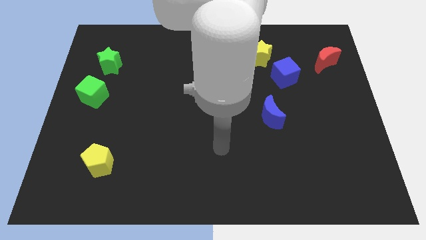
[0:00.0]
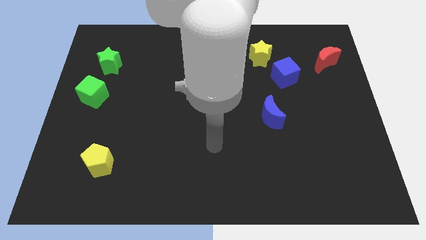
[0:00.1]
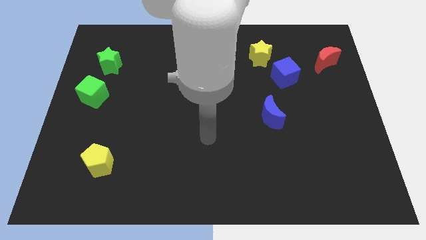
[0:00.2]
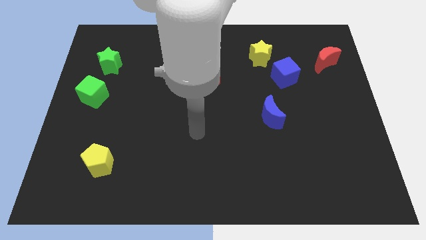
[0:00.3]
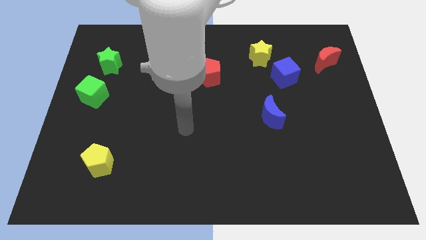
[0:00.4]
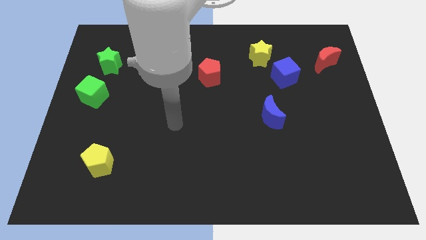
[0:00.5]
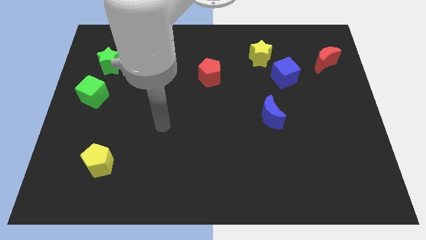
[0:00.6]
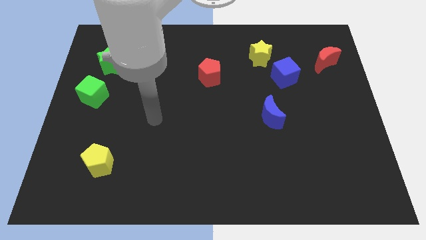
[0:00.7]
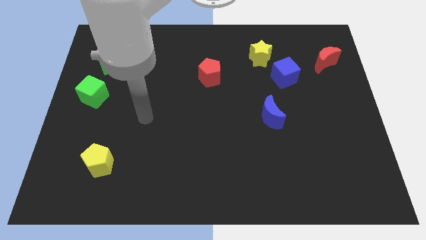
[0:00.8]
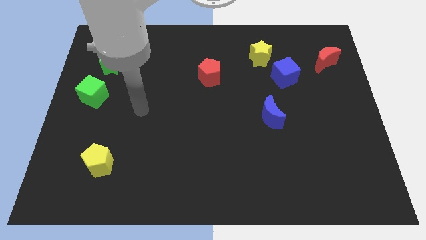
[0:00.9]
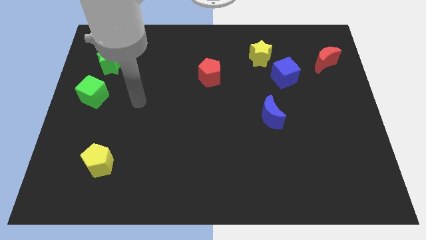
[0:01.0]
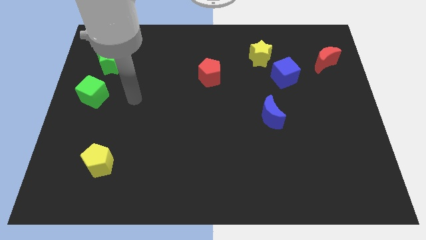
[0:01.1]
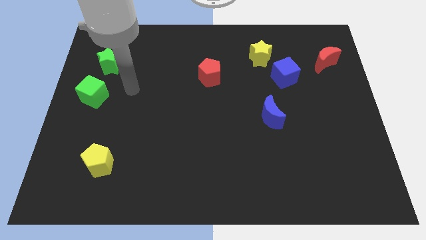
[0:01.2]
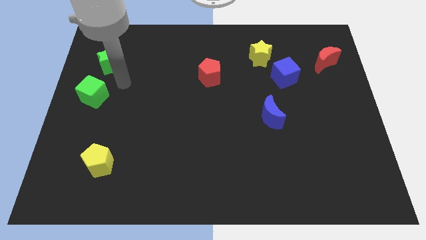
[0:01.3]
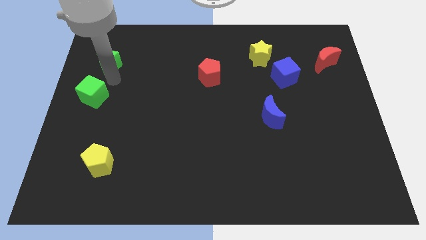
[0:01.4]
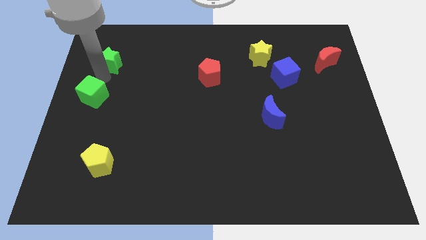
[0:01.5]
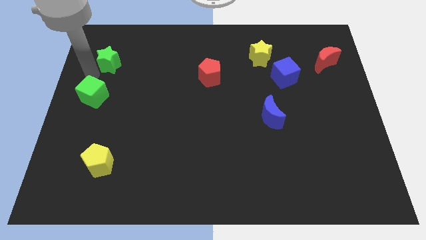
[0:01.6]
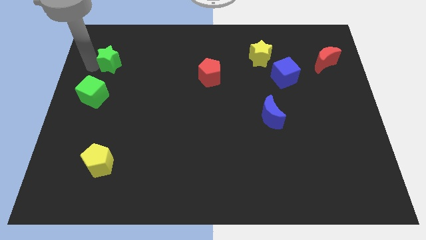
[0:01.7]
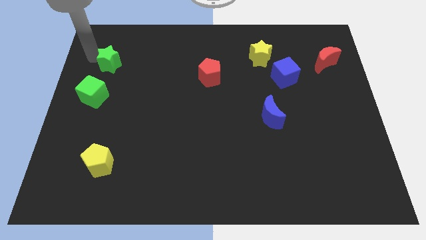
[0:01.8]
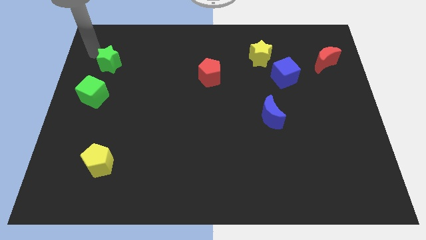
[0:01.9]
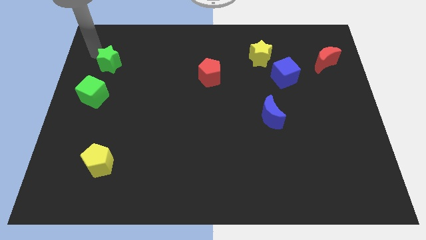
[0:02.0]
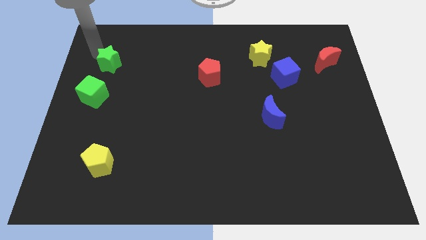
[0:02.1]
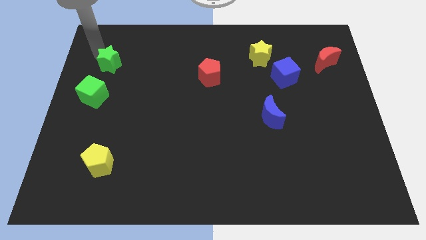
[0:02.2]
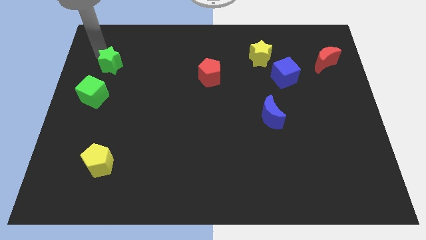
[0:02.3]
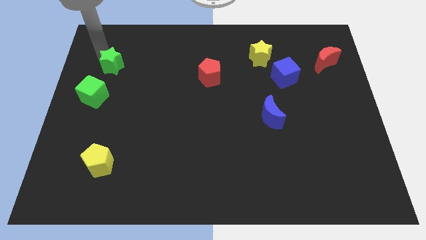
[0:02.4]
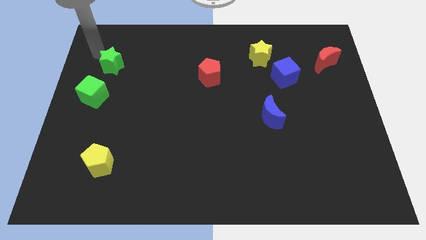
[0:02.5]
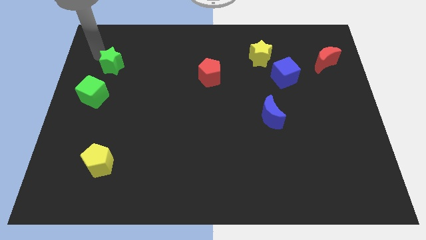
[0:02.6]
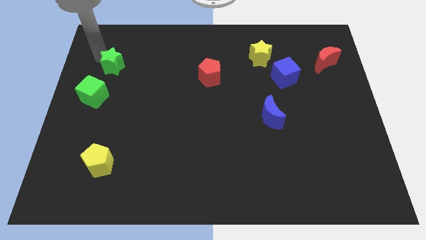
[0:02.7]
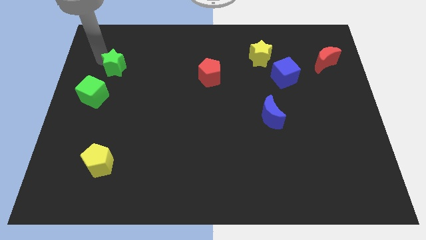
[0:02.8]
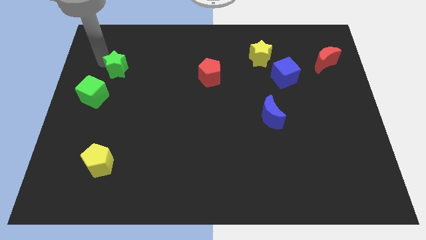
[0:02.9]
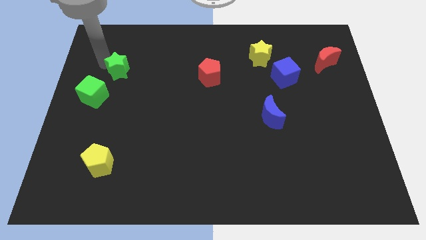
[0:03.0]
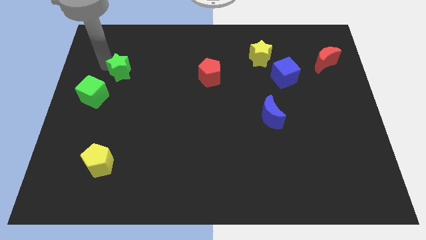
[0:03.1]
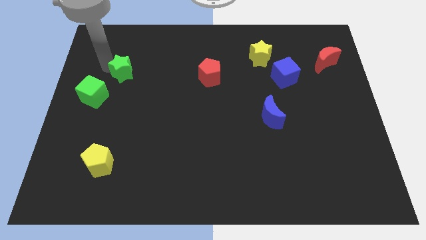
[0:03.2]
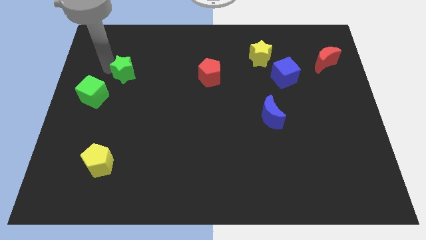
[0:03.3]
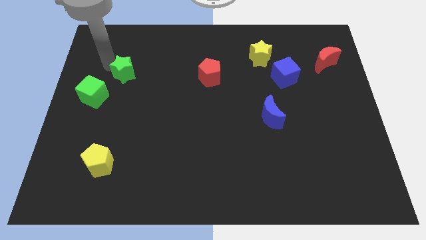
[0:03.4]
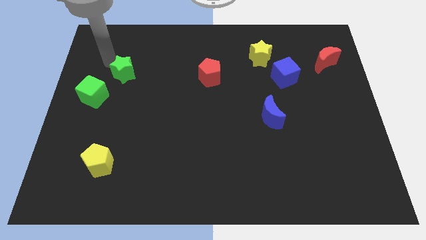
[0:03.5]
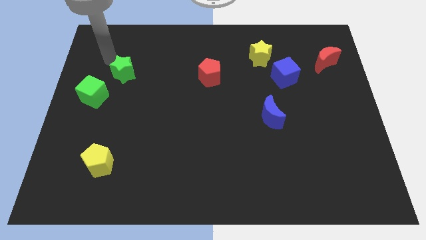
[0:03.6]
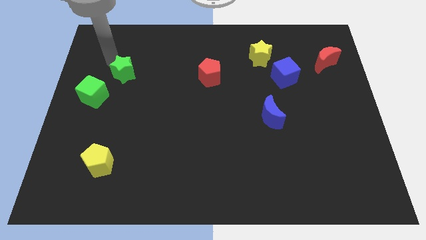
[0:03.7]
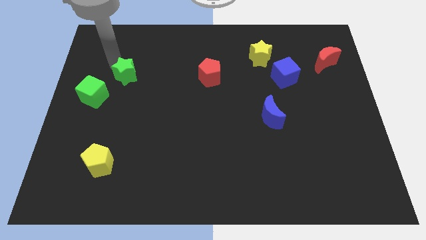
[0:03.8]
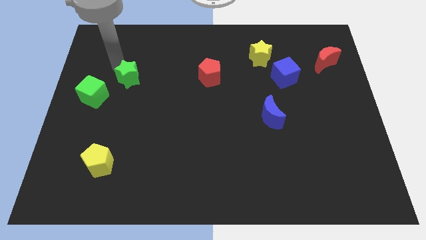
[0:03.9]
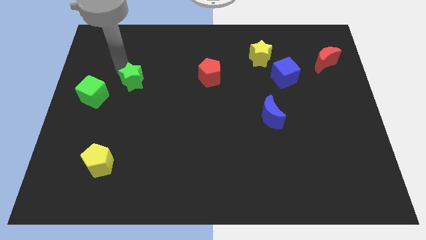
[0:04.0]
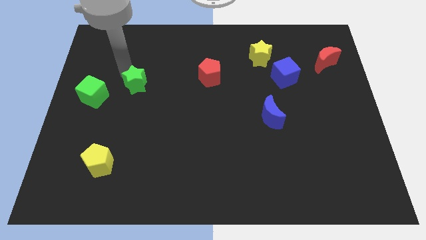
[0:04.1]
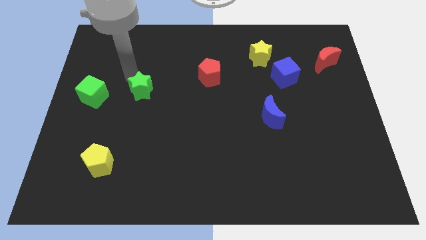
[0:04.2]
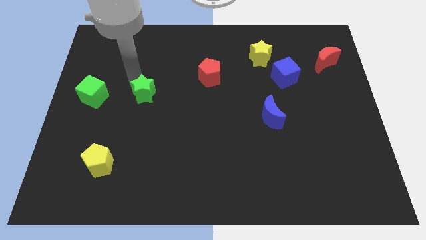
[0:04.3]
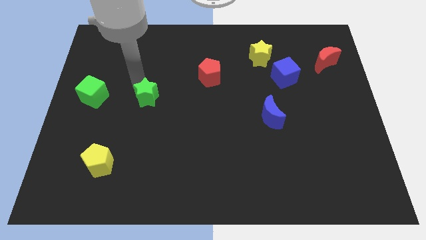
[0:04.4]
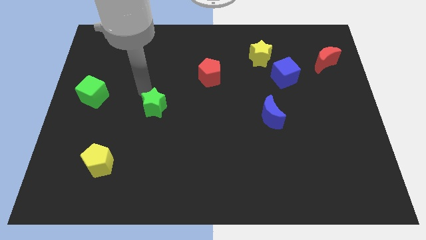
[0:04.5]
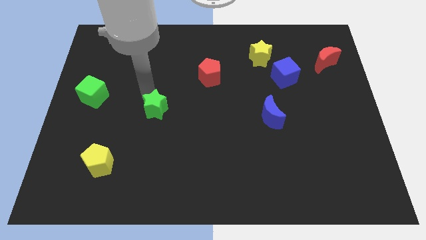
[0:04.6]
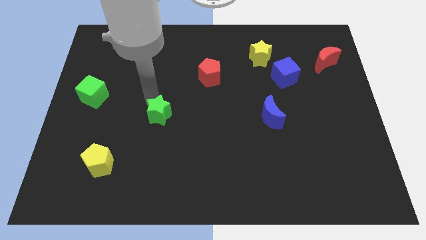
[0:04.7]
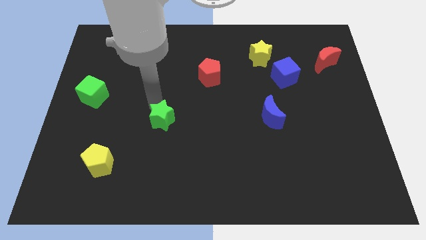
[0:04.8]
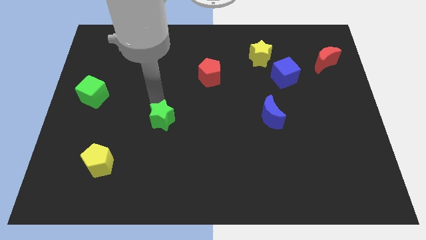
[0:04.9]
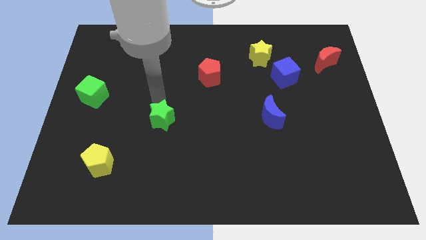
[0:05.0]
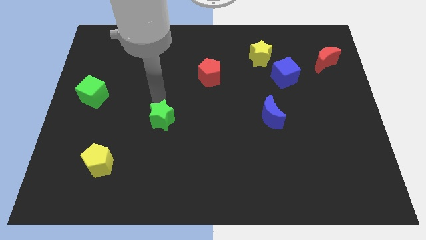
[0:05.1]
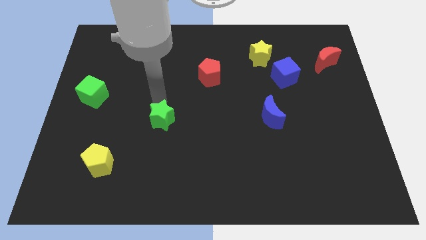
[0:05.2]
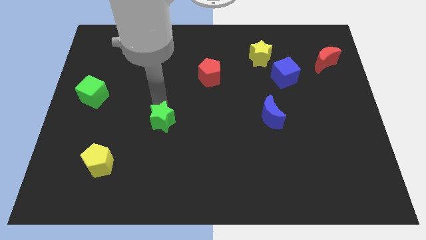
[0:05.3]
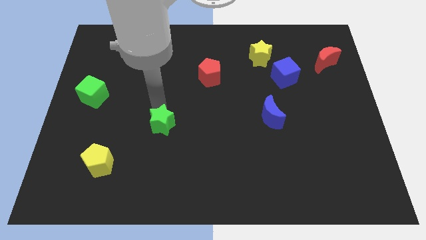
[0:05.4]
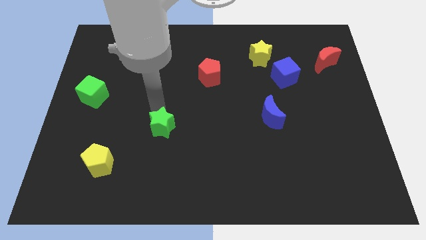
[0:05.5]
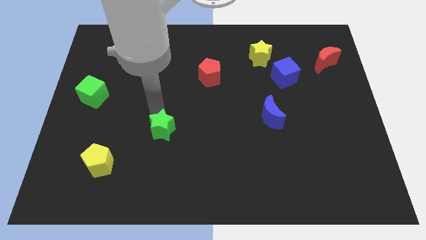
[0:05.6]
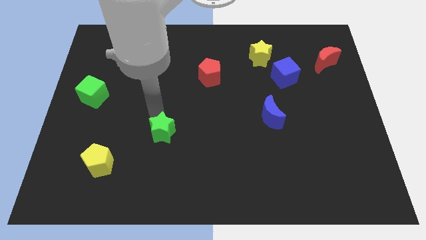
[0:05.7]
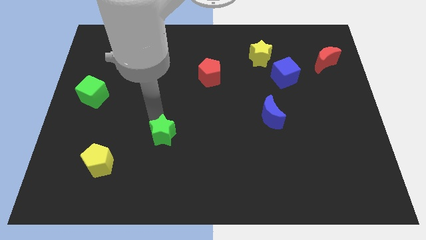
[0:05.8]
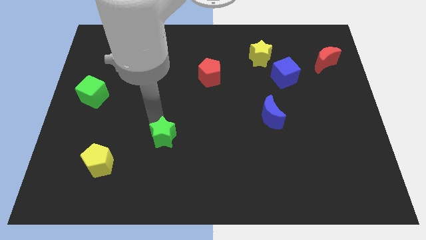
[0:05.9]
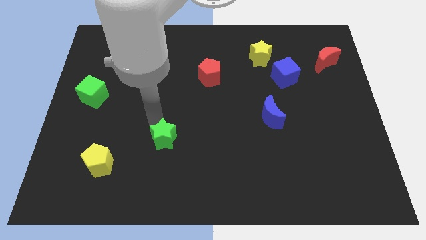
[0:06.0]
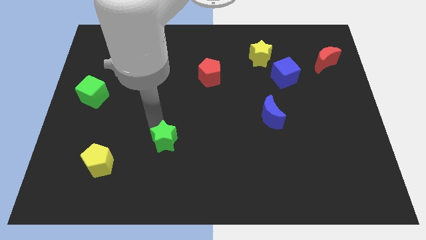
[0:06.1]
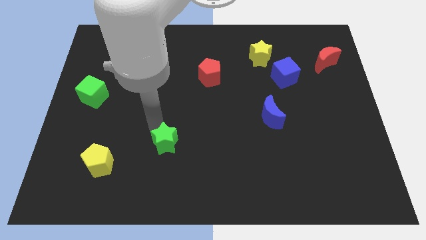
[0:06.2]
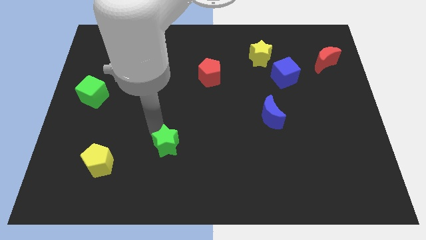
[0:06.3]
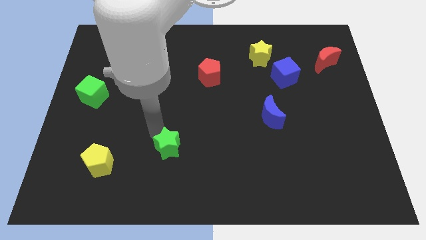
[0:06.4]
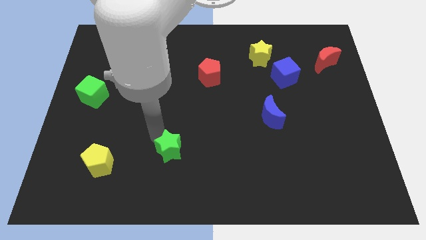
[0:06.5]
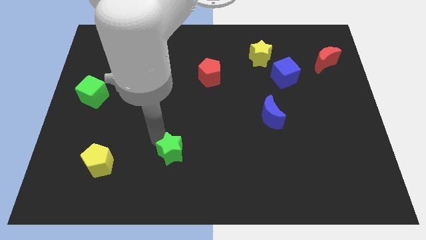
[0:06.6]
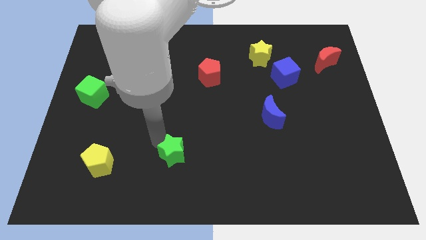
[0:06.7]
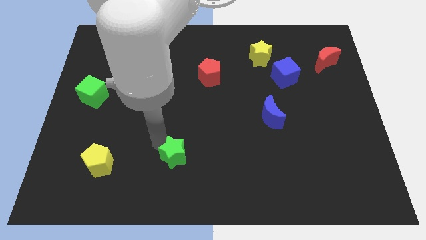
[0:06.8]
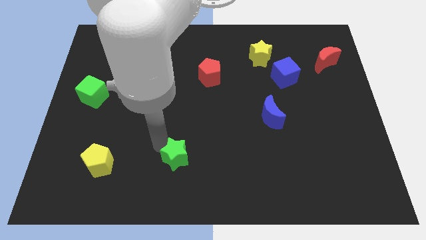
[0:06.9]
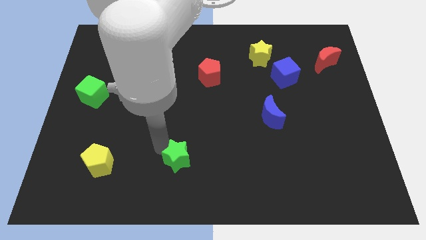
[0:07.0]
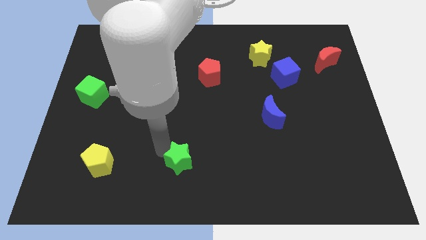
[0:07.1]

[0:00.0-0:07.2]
slide the green star to the bottom side
